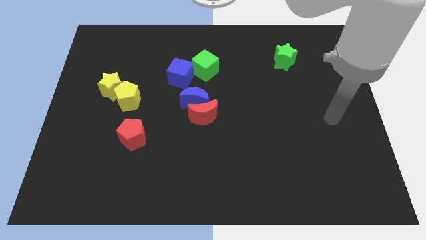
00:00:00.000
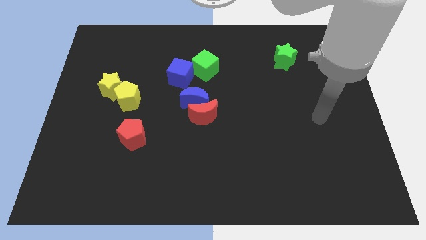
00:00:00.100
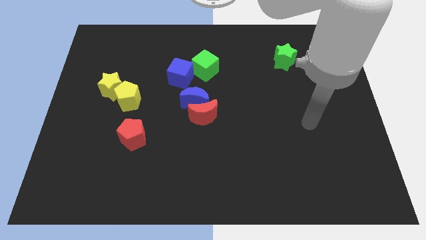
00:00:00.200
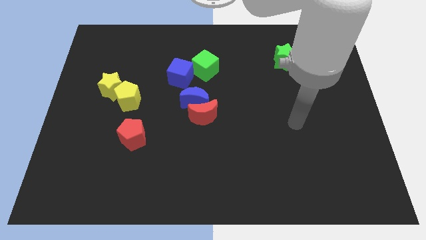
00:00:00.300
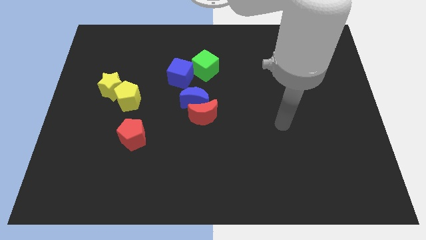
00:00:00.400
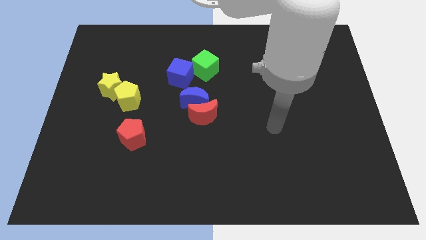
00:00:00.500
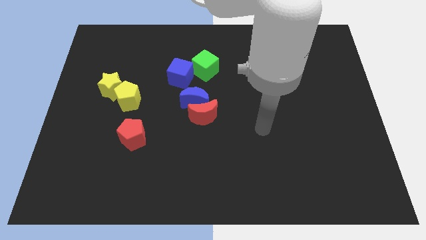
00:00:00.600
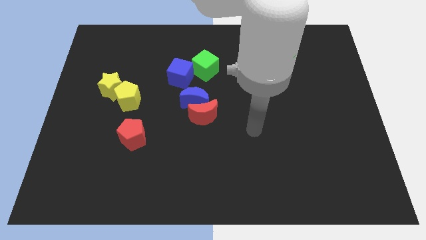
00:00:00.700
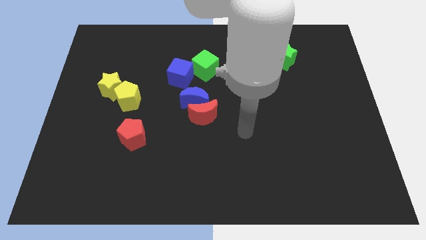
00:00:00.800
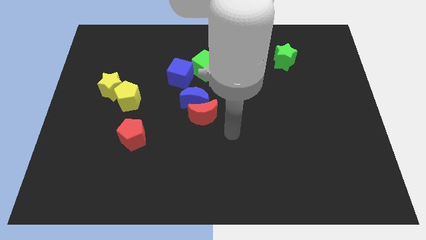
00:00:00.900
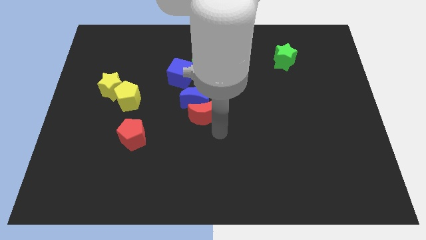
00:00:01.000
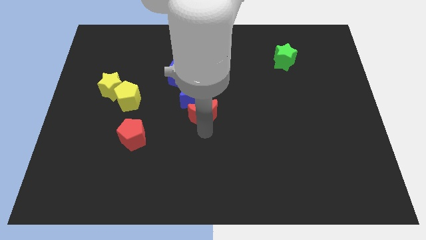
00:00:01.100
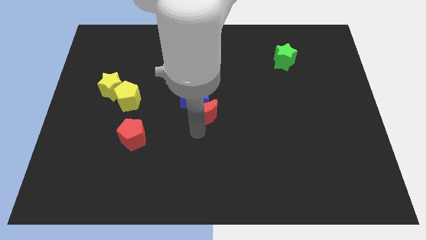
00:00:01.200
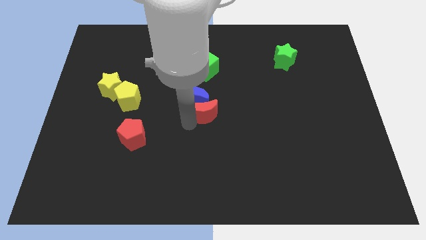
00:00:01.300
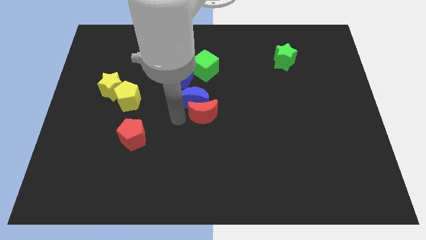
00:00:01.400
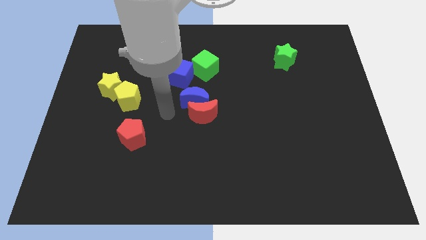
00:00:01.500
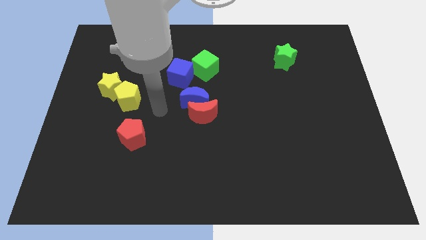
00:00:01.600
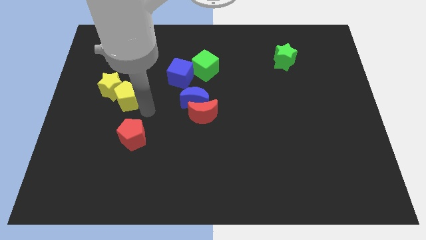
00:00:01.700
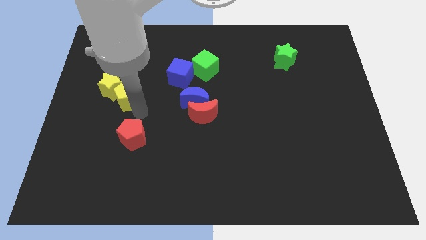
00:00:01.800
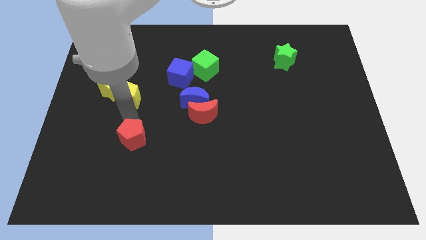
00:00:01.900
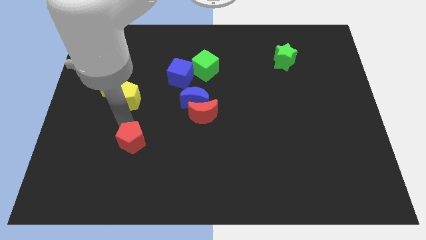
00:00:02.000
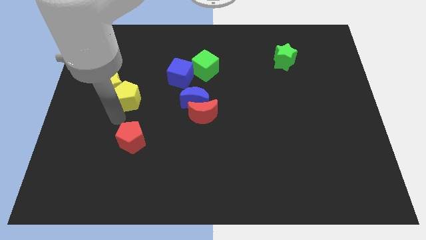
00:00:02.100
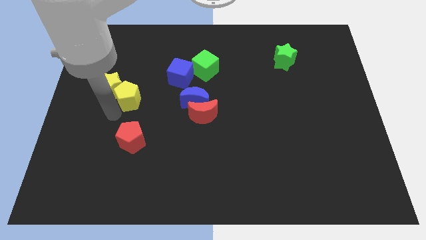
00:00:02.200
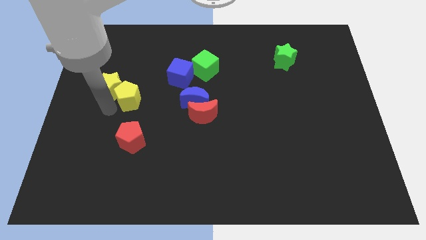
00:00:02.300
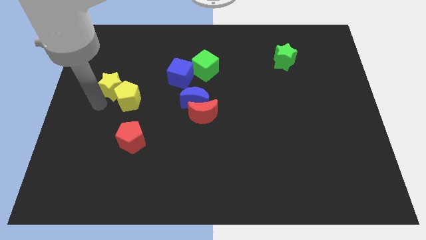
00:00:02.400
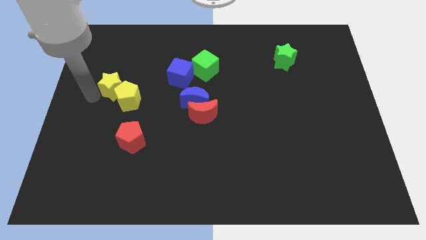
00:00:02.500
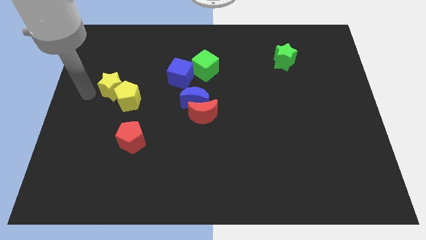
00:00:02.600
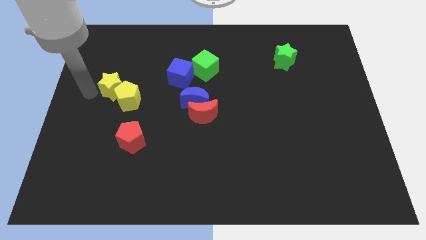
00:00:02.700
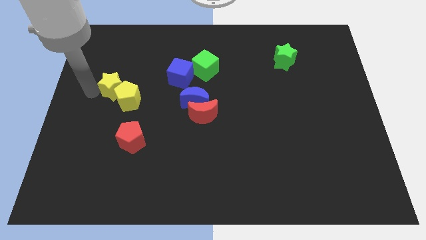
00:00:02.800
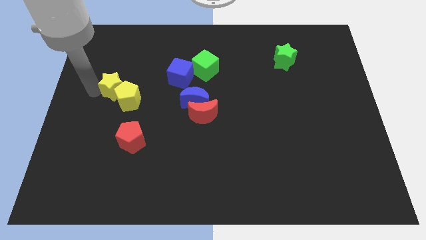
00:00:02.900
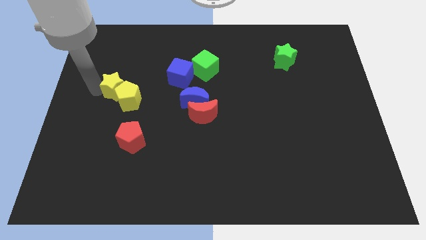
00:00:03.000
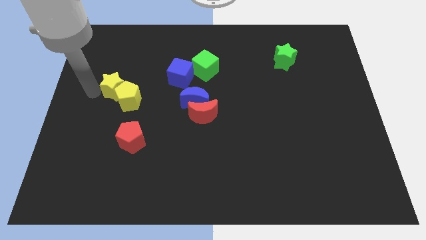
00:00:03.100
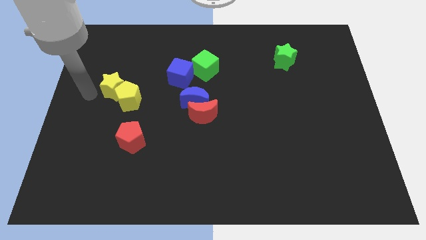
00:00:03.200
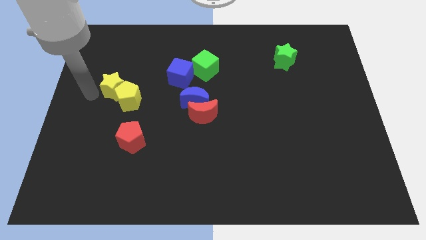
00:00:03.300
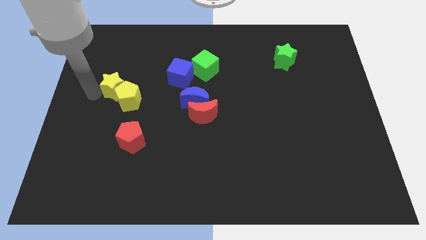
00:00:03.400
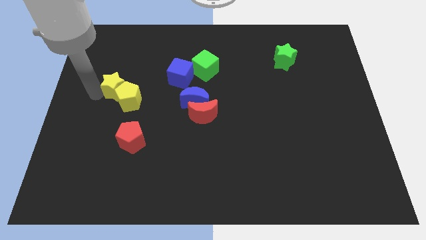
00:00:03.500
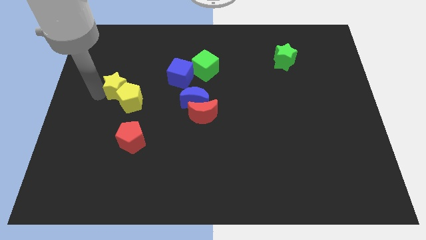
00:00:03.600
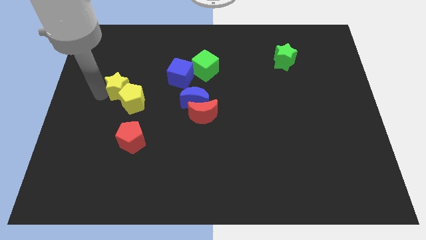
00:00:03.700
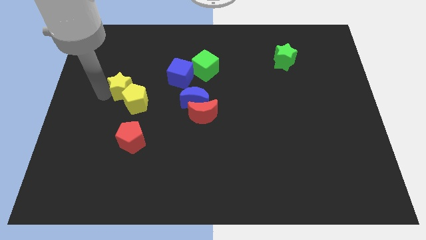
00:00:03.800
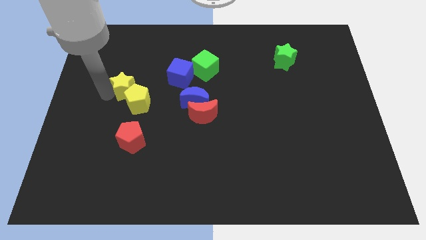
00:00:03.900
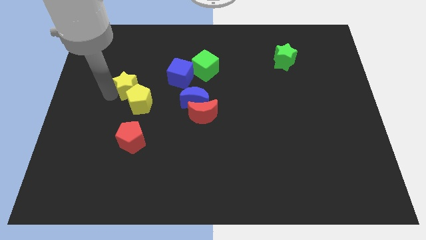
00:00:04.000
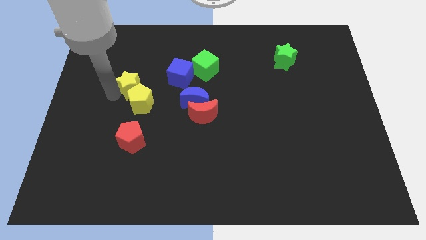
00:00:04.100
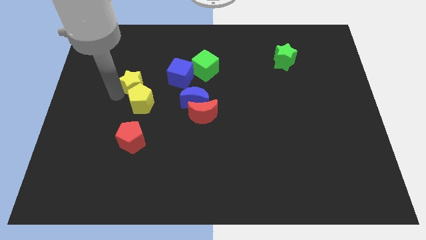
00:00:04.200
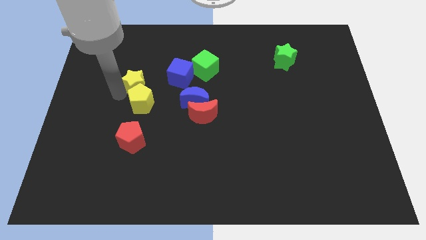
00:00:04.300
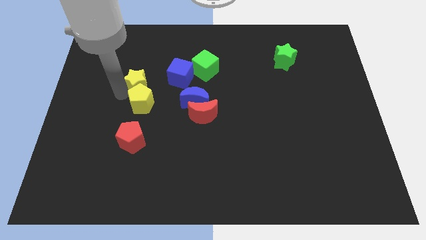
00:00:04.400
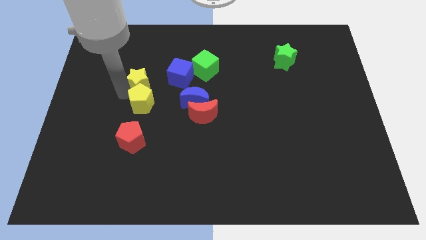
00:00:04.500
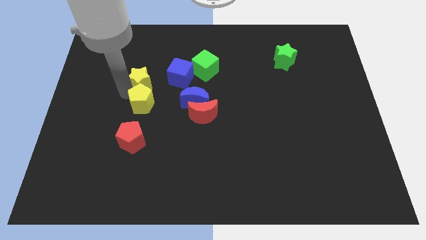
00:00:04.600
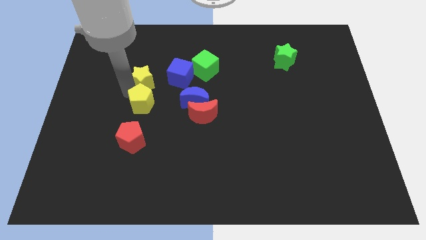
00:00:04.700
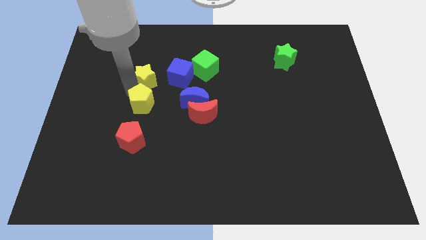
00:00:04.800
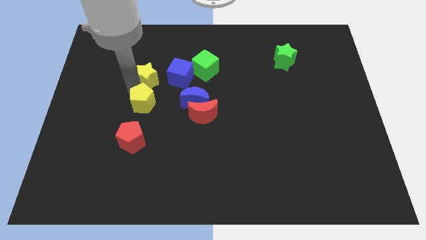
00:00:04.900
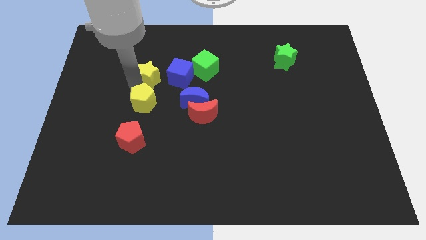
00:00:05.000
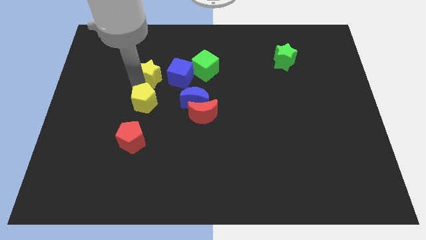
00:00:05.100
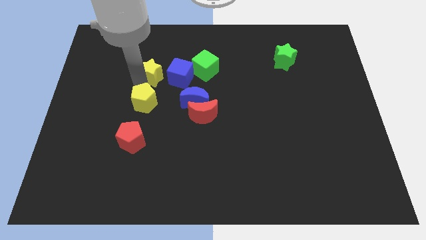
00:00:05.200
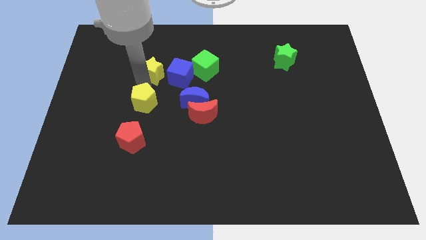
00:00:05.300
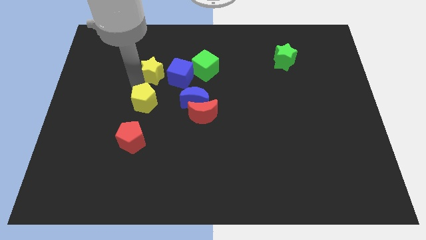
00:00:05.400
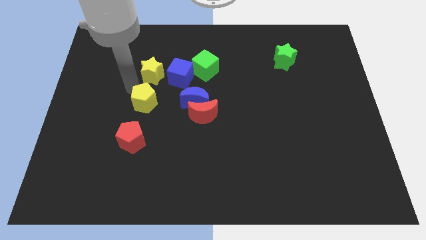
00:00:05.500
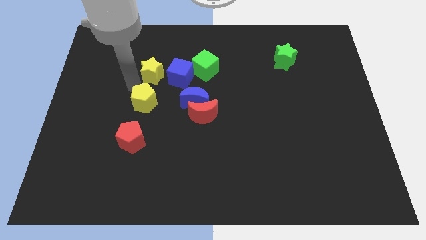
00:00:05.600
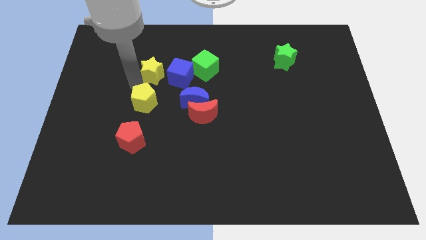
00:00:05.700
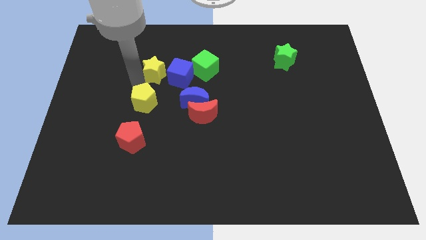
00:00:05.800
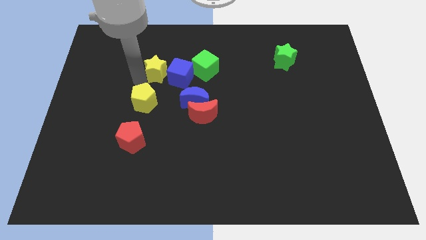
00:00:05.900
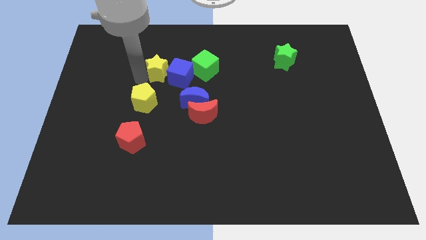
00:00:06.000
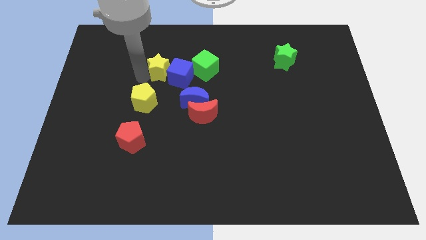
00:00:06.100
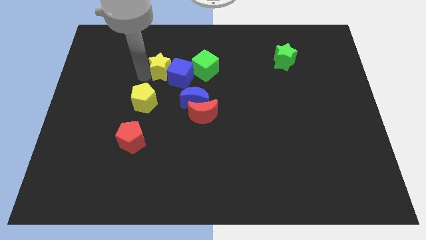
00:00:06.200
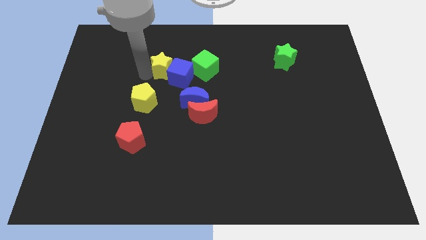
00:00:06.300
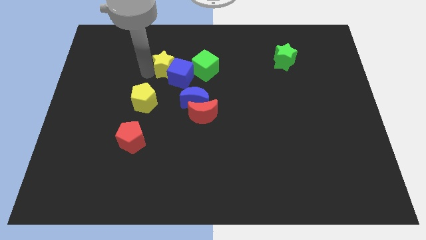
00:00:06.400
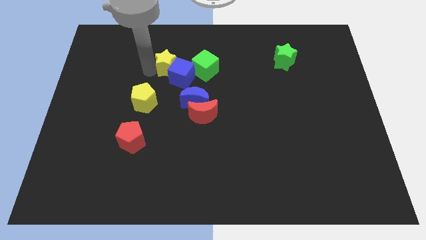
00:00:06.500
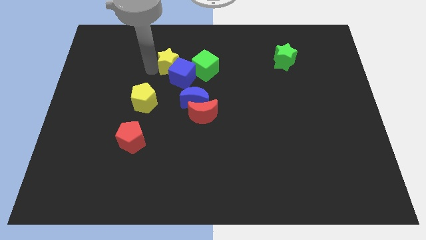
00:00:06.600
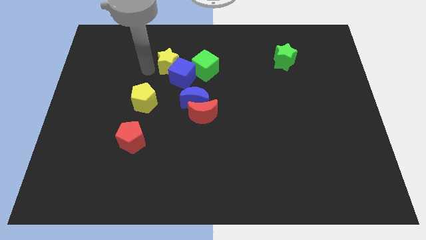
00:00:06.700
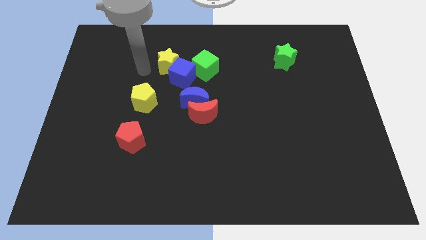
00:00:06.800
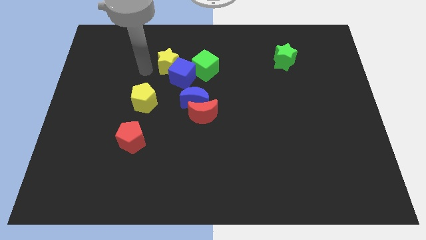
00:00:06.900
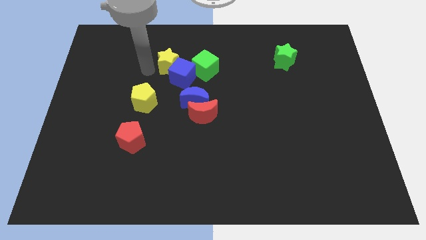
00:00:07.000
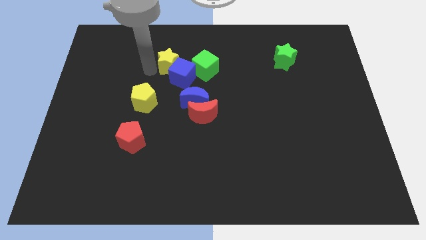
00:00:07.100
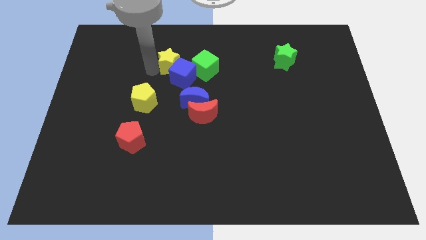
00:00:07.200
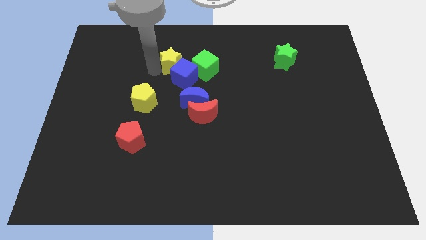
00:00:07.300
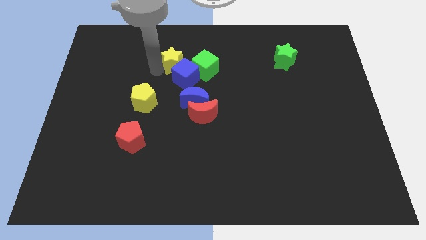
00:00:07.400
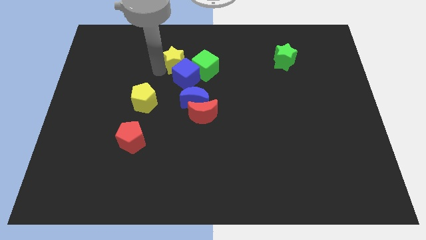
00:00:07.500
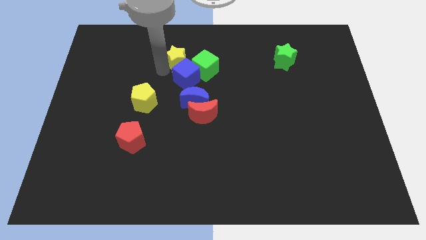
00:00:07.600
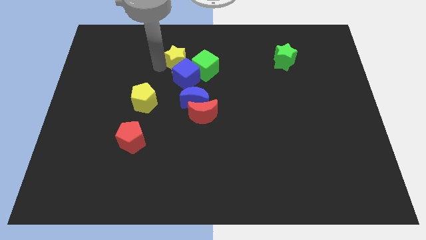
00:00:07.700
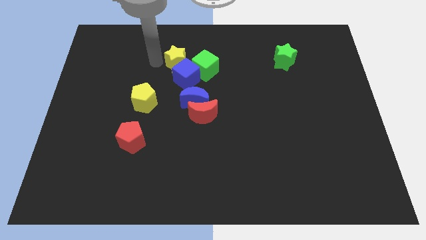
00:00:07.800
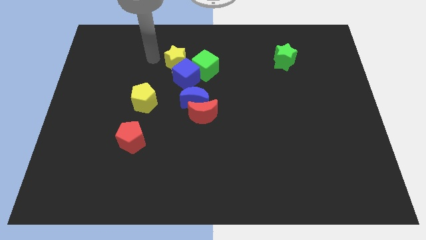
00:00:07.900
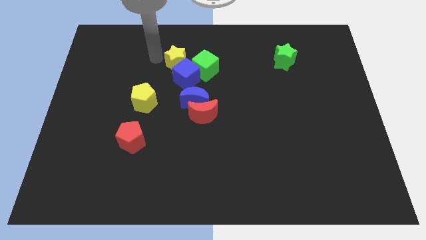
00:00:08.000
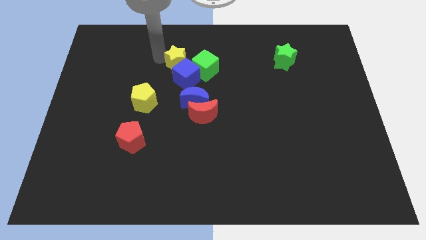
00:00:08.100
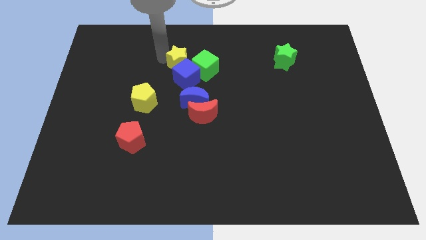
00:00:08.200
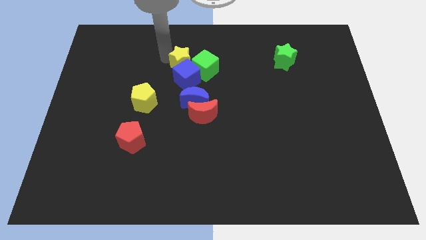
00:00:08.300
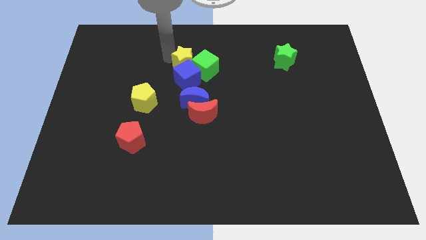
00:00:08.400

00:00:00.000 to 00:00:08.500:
move the yellow star to the green cube
